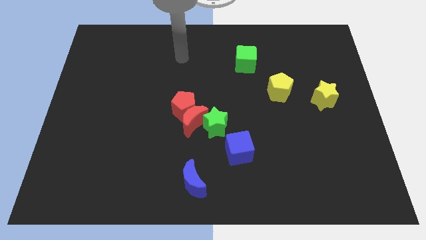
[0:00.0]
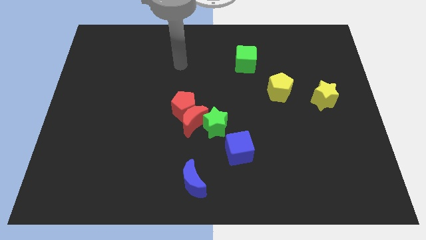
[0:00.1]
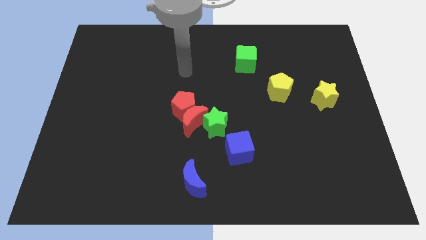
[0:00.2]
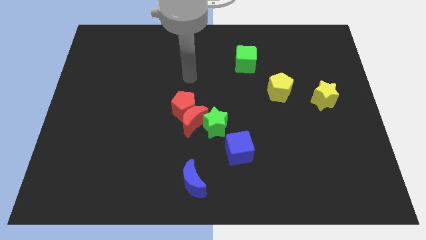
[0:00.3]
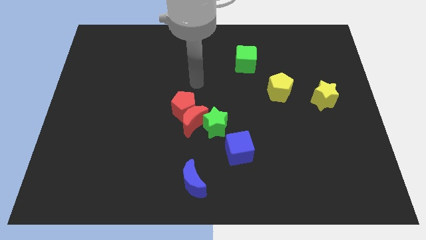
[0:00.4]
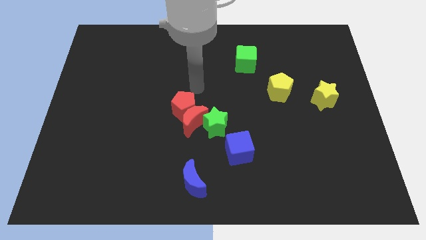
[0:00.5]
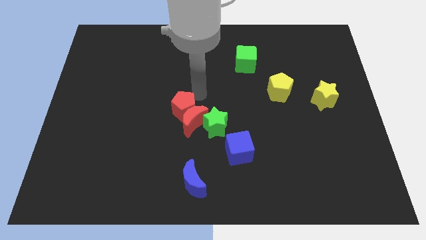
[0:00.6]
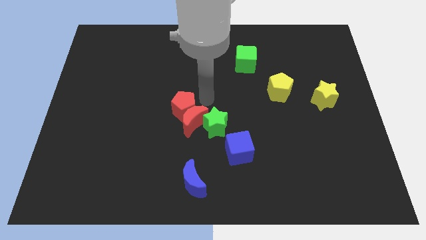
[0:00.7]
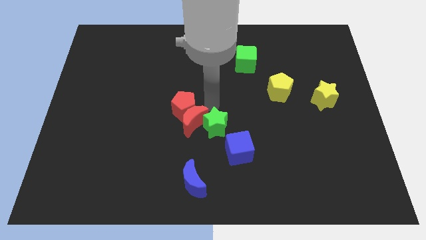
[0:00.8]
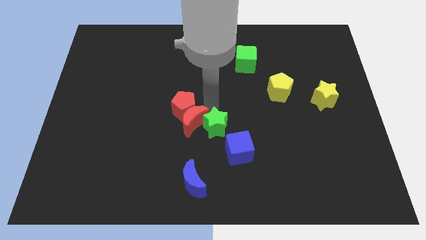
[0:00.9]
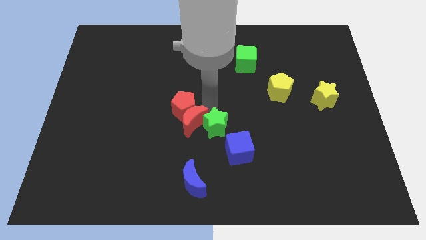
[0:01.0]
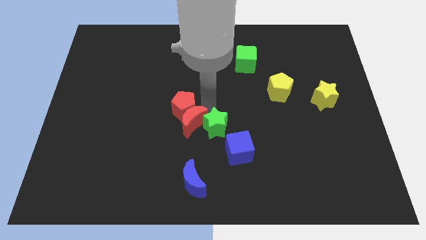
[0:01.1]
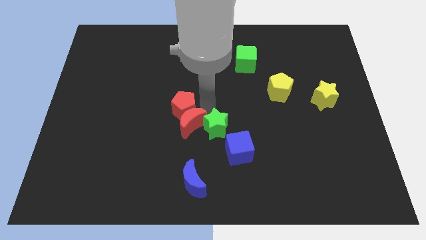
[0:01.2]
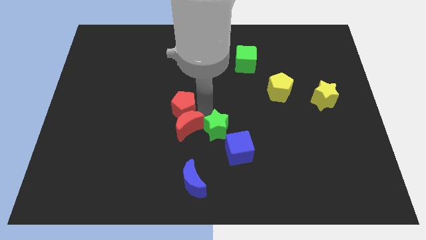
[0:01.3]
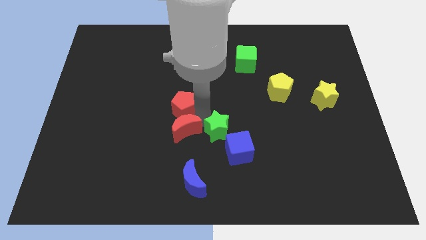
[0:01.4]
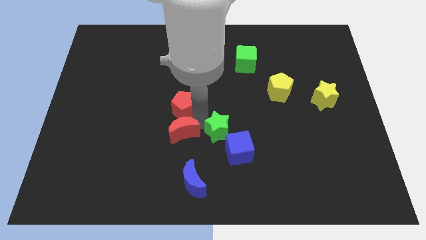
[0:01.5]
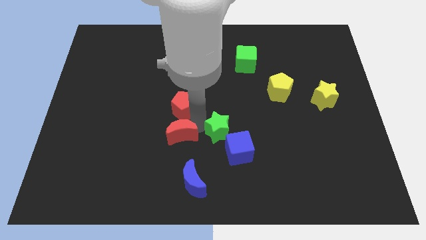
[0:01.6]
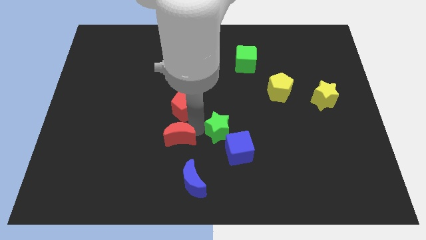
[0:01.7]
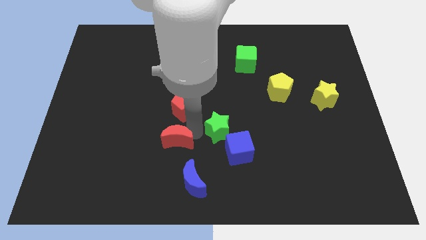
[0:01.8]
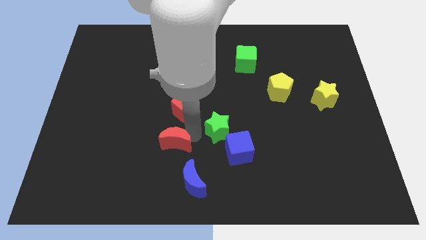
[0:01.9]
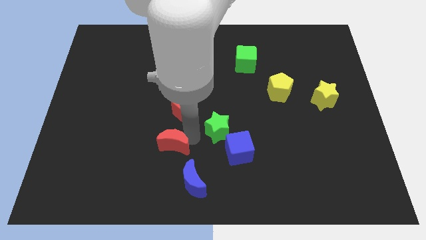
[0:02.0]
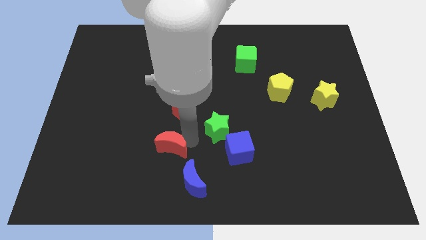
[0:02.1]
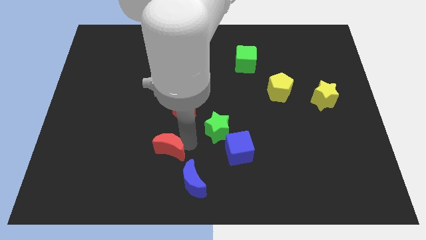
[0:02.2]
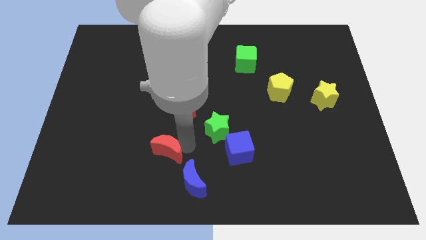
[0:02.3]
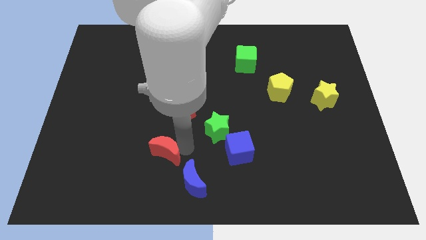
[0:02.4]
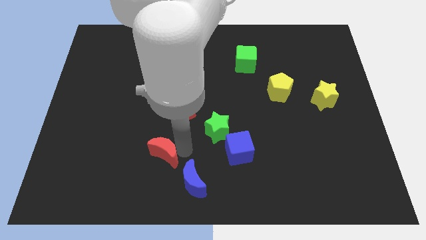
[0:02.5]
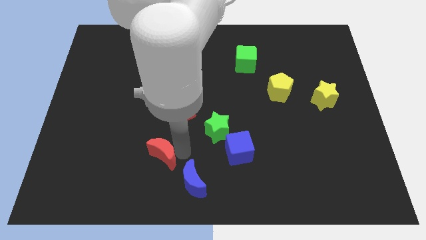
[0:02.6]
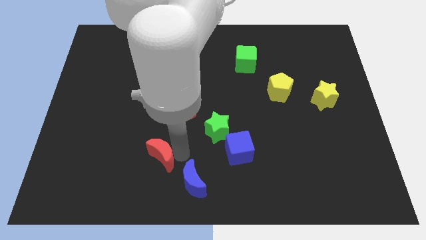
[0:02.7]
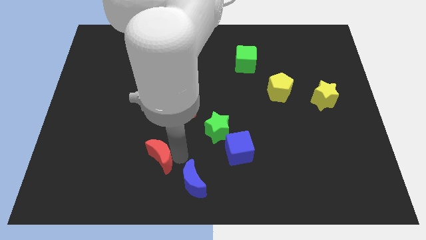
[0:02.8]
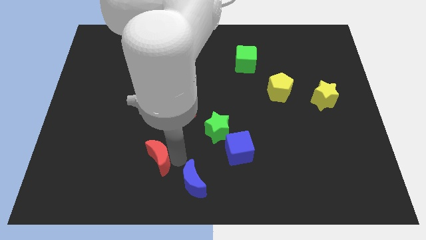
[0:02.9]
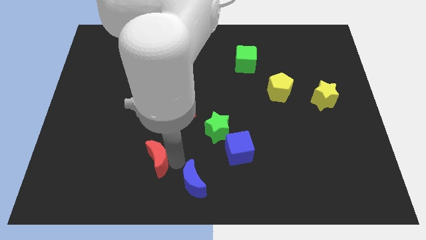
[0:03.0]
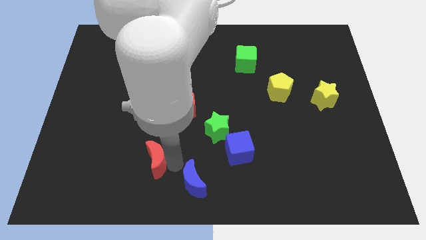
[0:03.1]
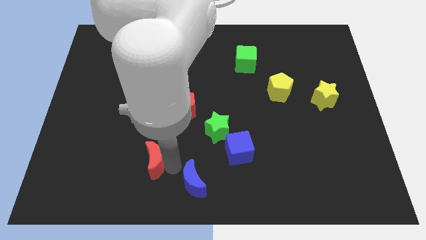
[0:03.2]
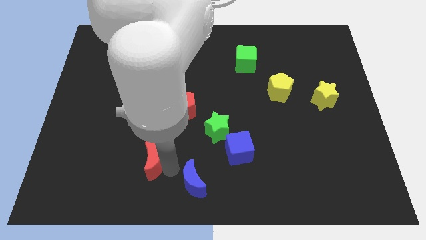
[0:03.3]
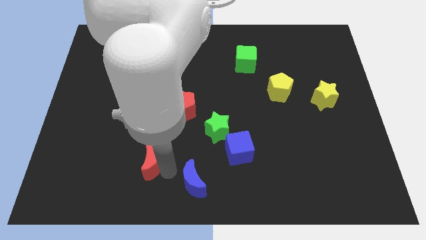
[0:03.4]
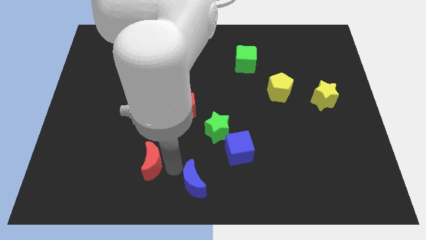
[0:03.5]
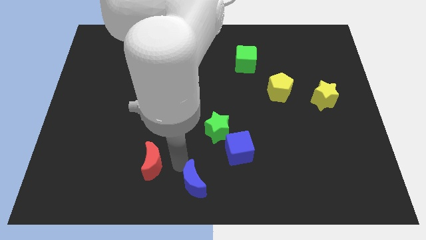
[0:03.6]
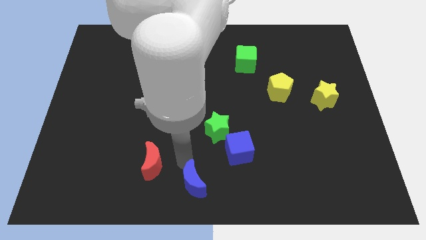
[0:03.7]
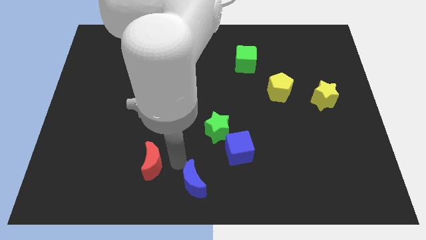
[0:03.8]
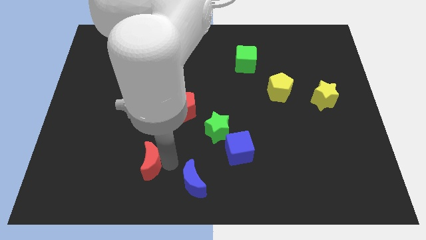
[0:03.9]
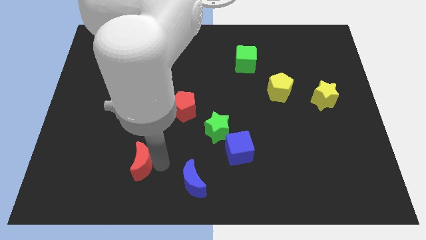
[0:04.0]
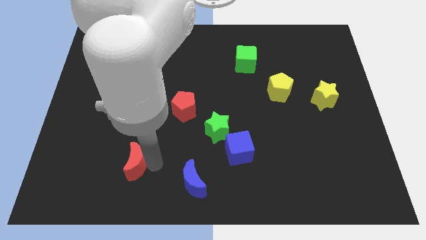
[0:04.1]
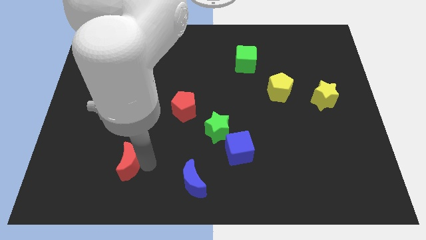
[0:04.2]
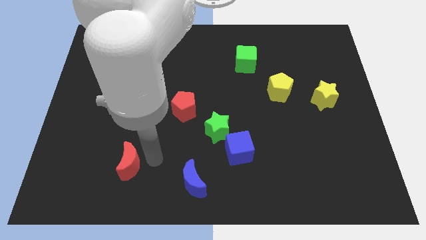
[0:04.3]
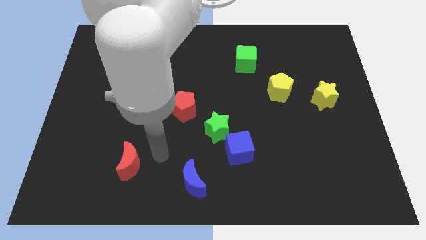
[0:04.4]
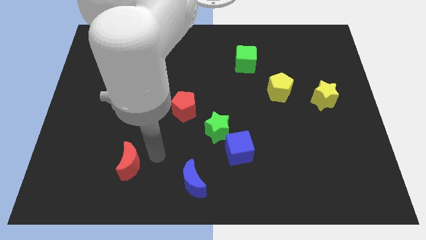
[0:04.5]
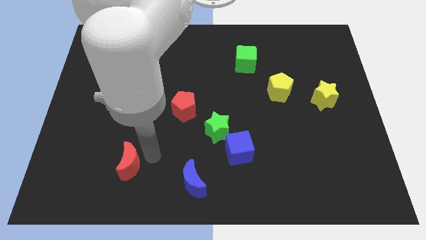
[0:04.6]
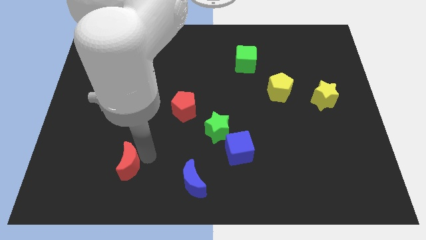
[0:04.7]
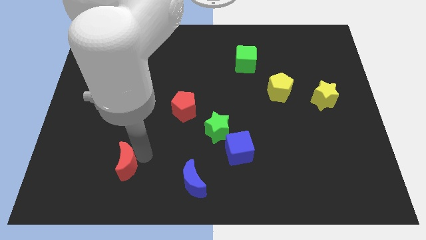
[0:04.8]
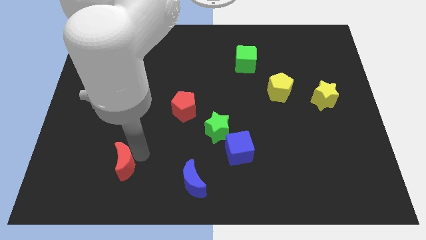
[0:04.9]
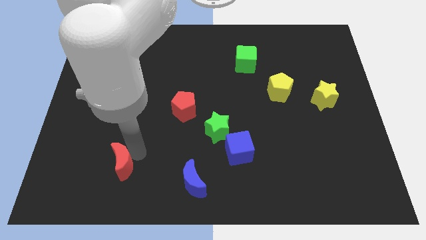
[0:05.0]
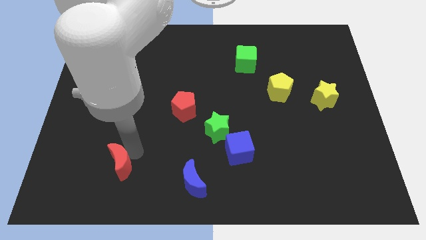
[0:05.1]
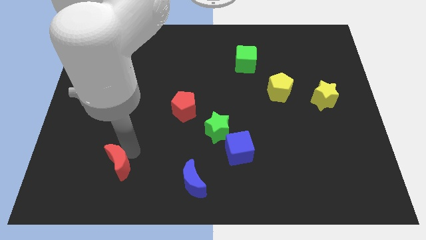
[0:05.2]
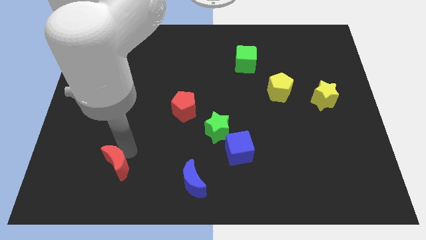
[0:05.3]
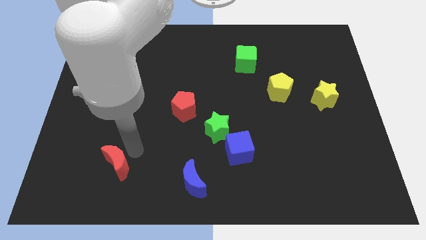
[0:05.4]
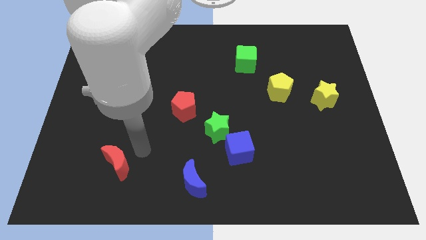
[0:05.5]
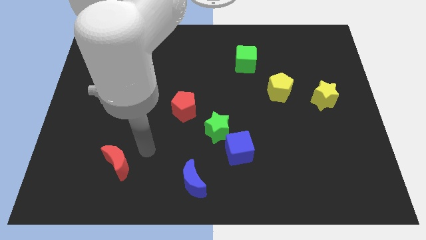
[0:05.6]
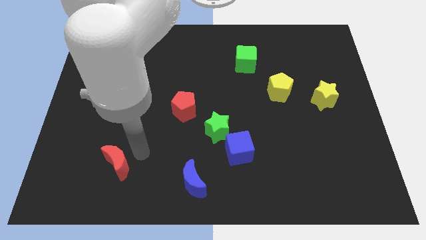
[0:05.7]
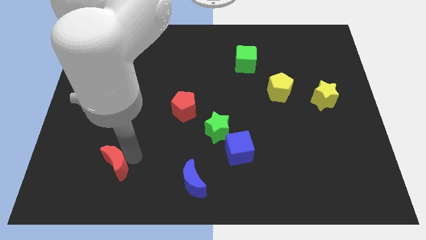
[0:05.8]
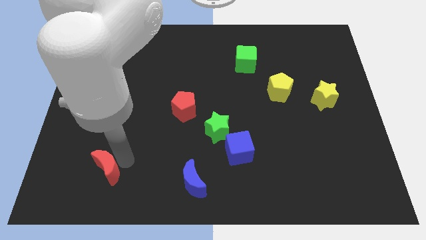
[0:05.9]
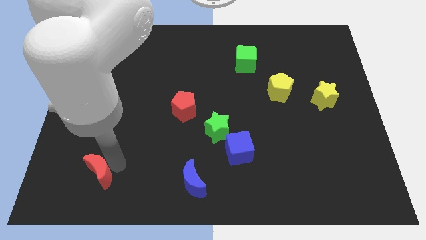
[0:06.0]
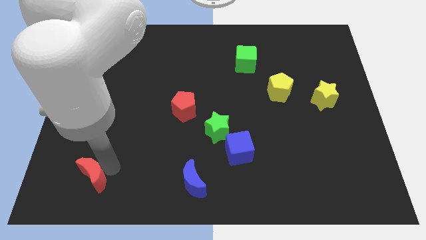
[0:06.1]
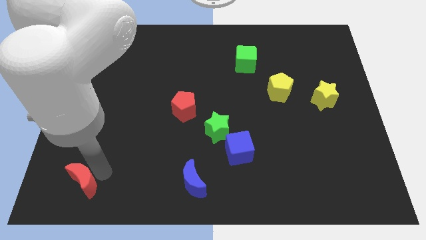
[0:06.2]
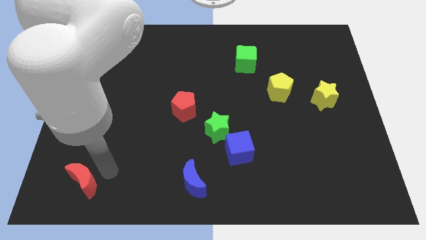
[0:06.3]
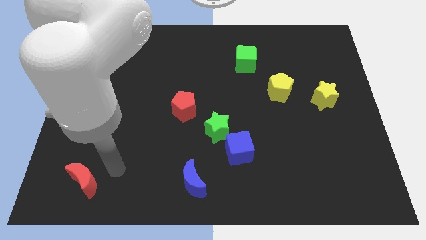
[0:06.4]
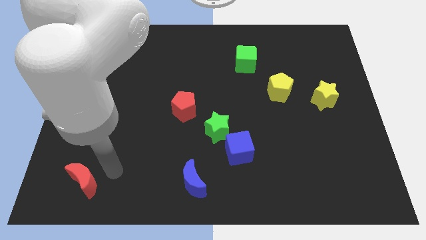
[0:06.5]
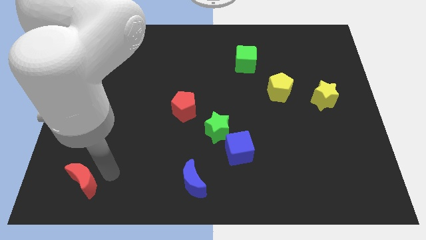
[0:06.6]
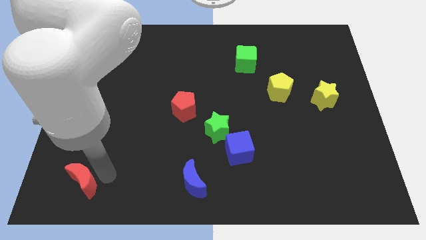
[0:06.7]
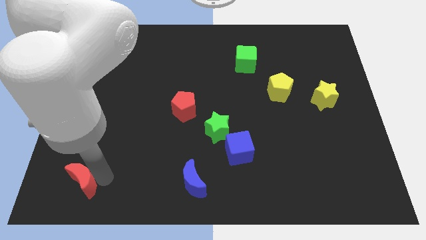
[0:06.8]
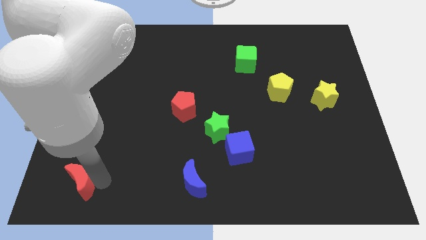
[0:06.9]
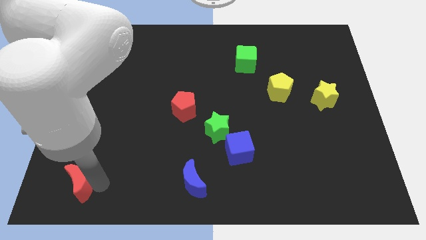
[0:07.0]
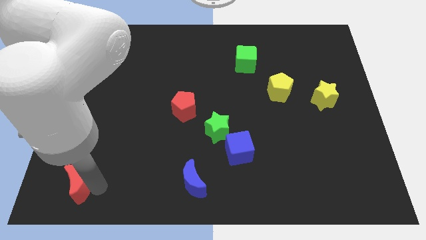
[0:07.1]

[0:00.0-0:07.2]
put the red moon to the lower left corner
